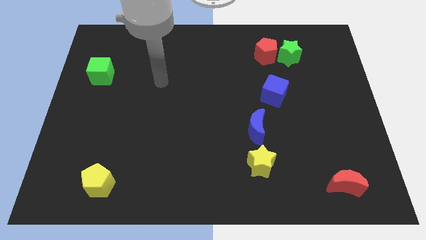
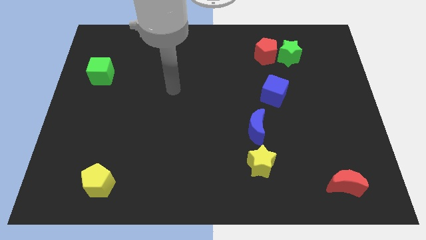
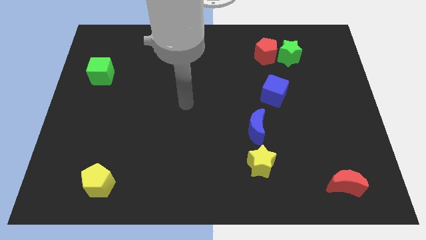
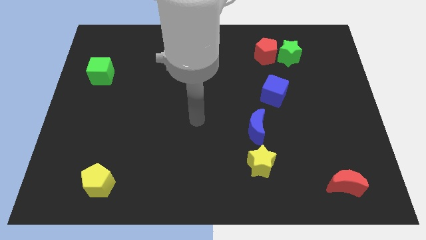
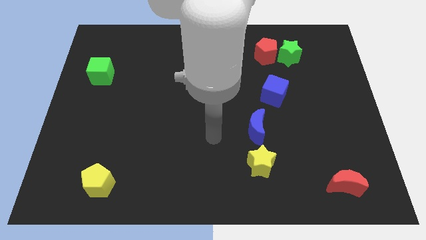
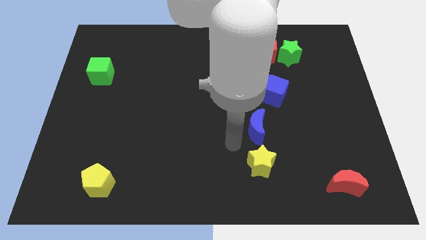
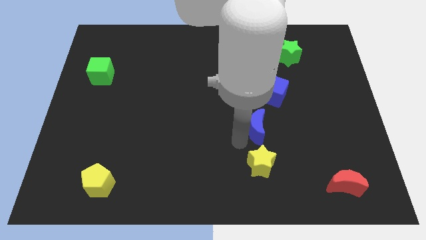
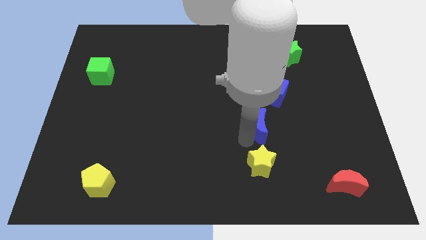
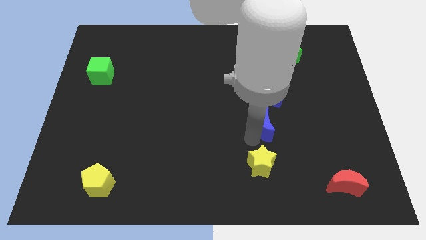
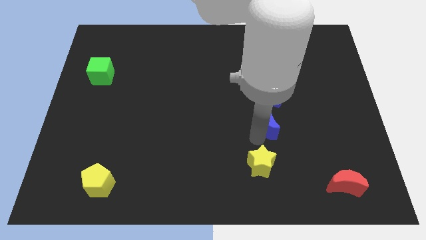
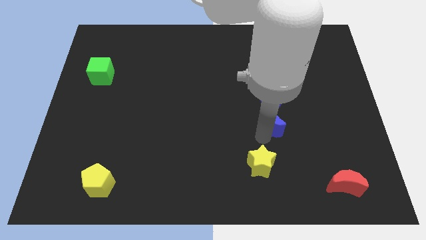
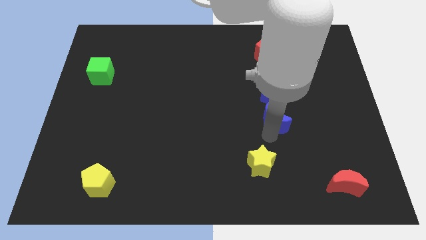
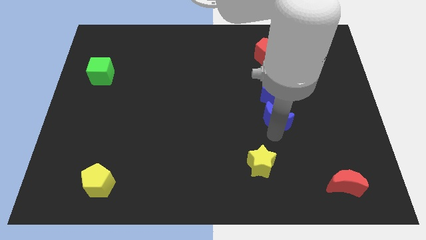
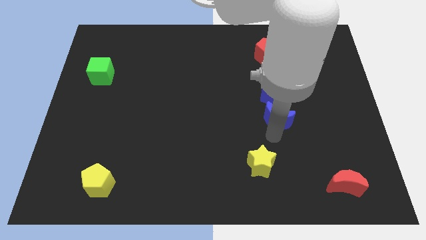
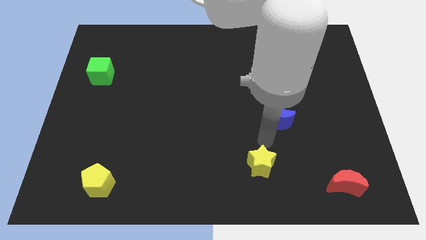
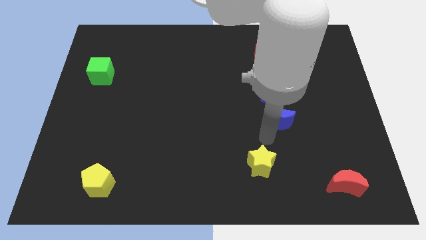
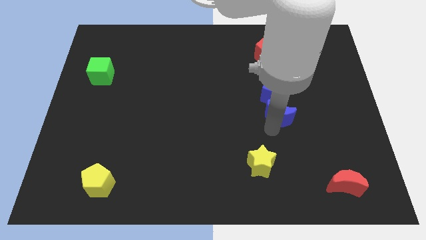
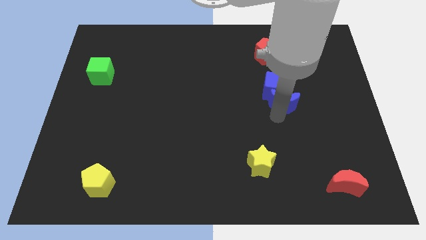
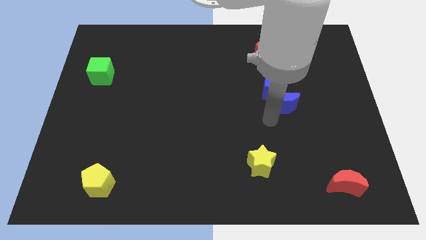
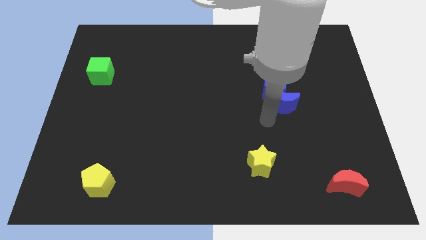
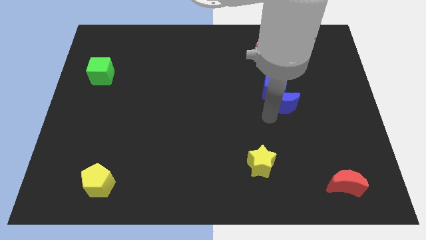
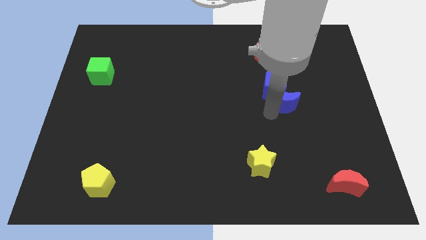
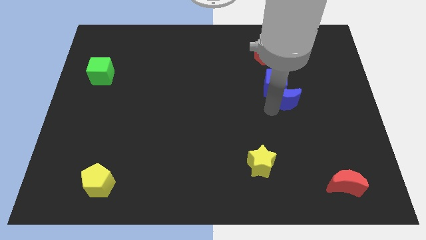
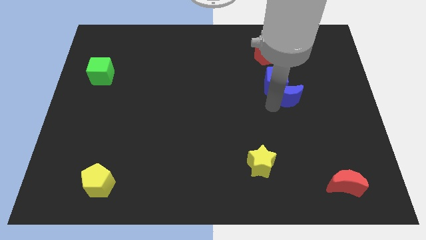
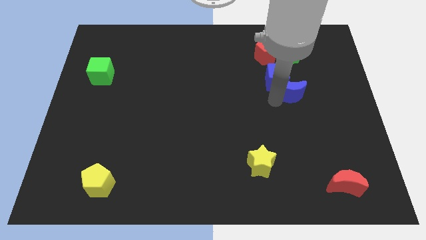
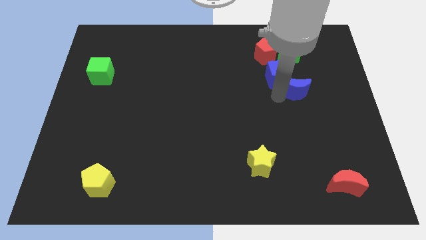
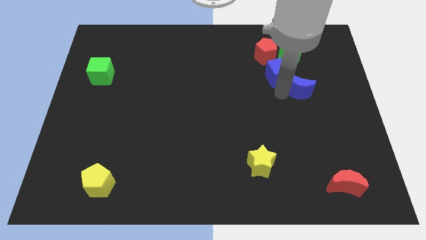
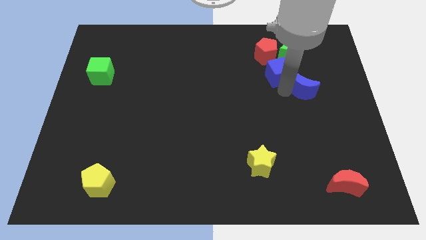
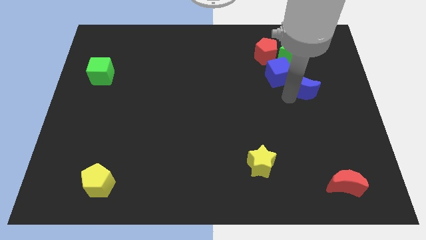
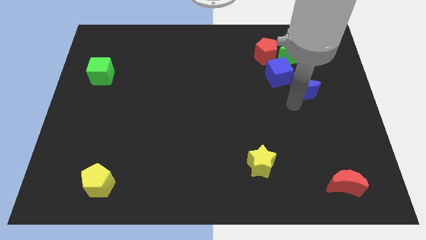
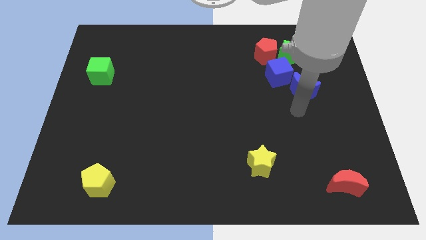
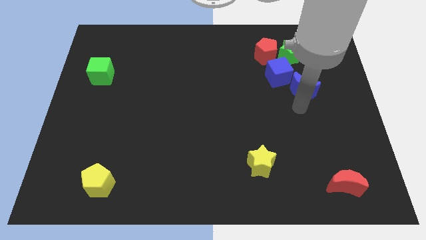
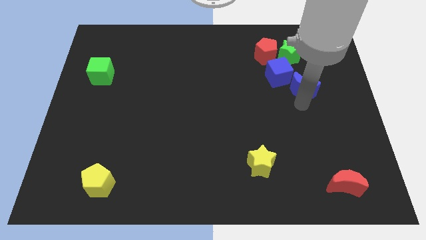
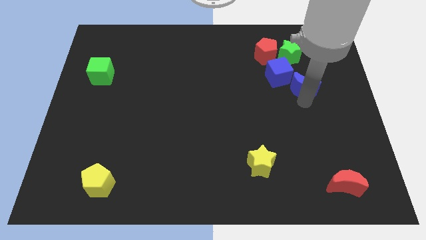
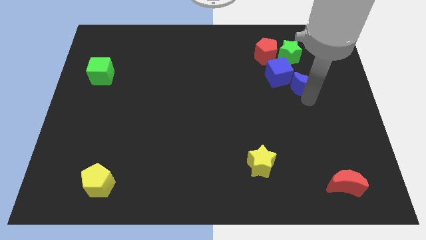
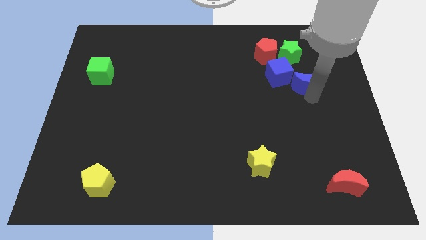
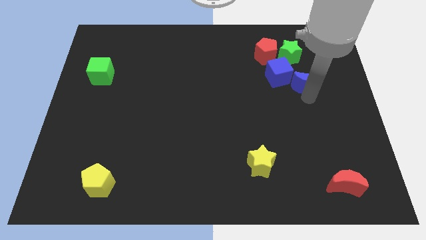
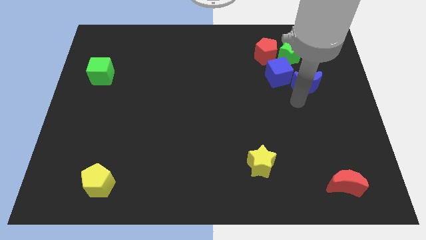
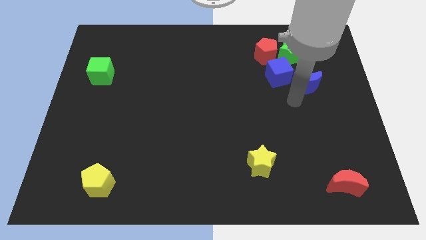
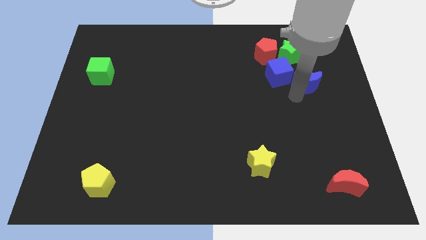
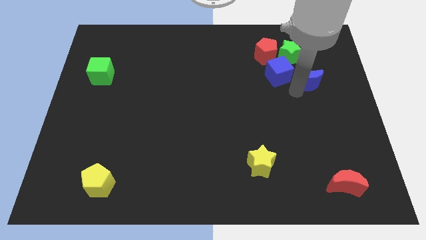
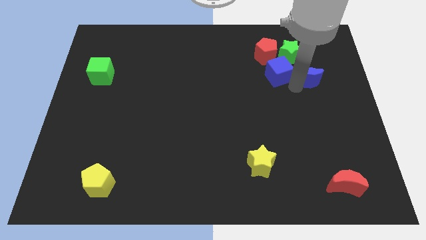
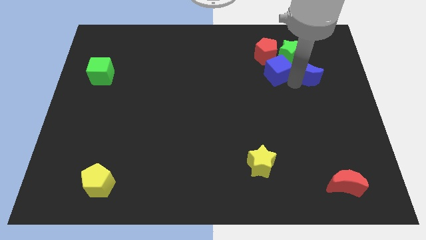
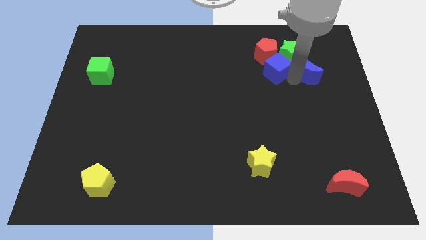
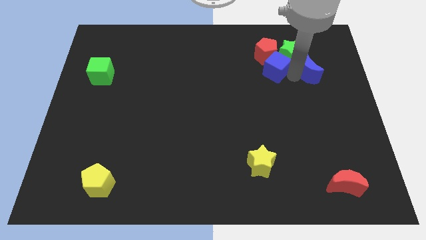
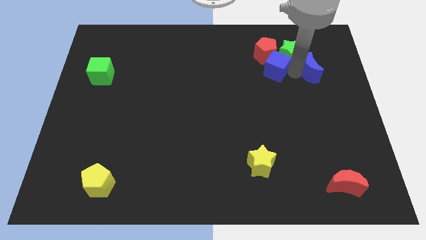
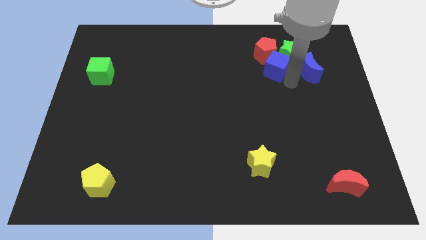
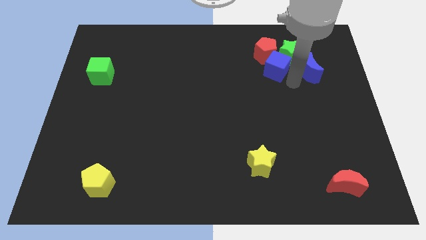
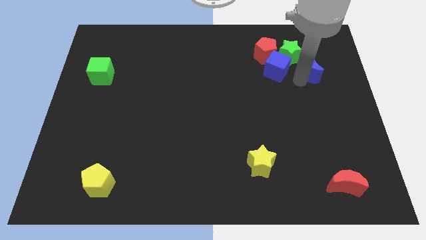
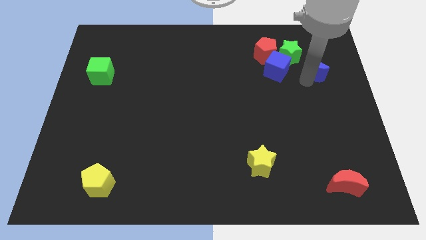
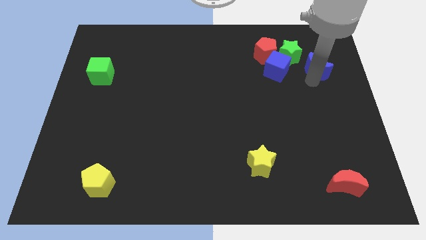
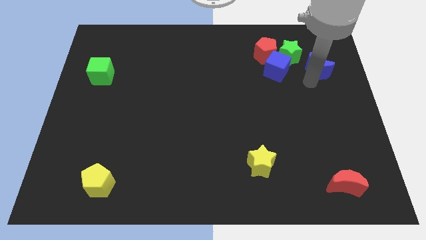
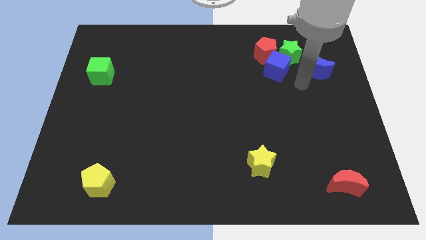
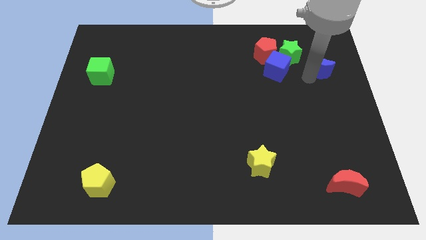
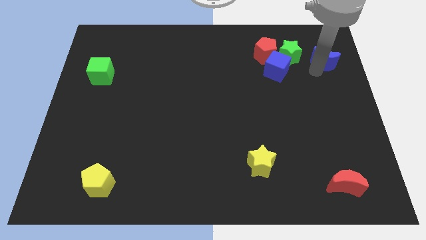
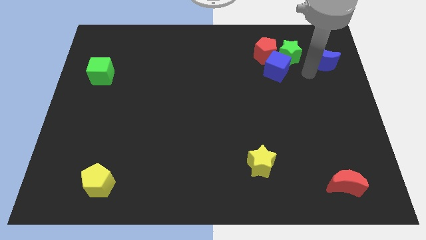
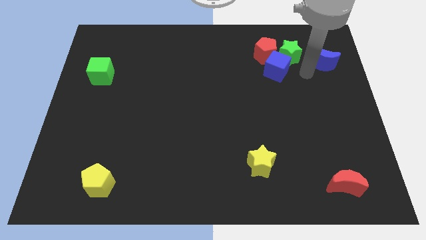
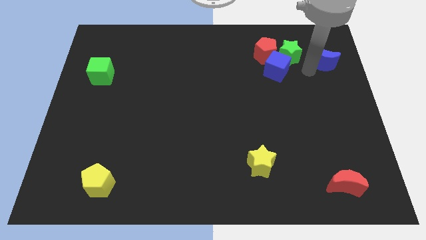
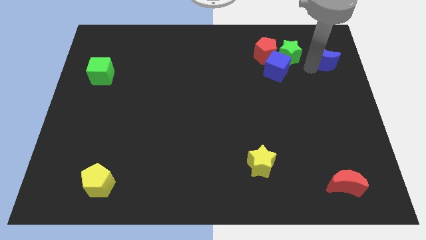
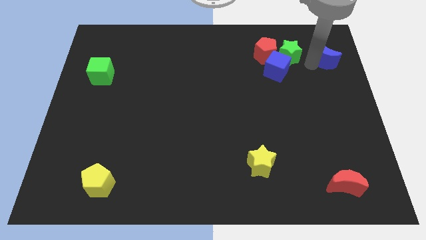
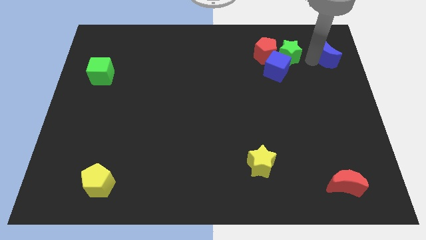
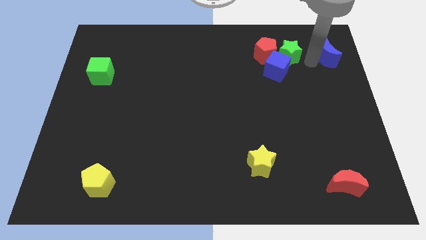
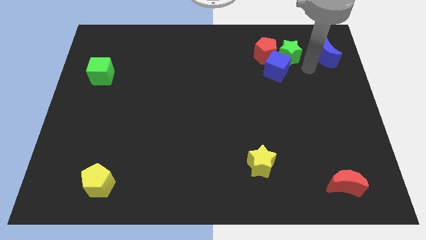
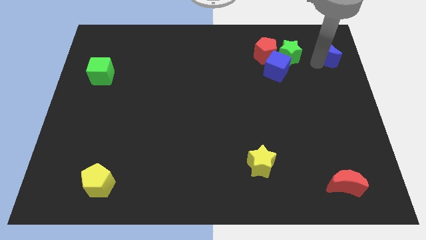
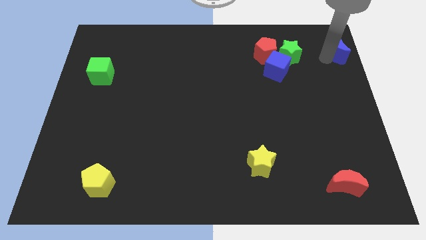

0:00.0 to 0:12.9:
slide the blue moon to the top right
